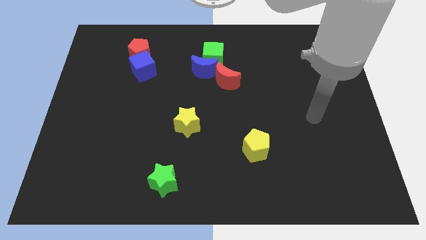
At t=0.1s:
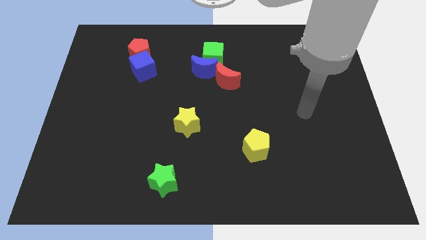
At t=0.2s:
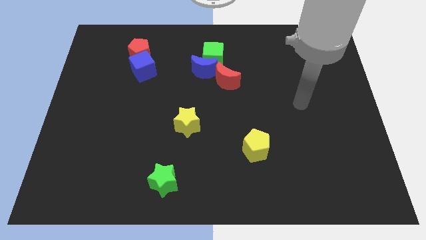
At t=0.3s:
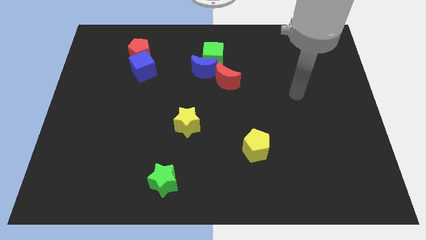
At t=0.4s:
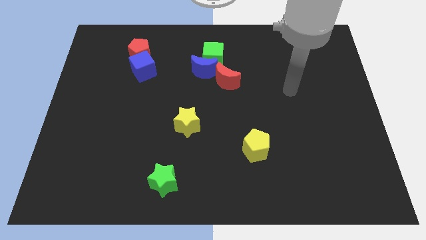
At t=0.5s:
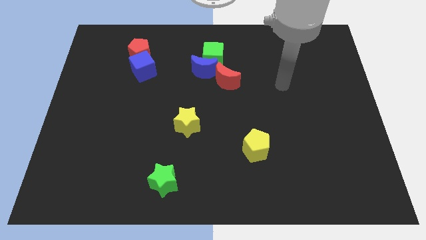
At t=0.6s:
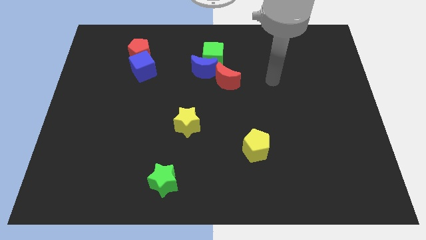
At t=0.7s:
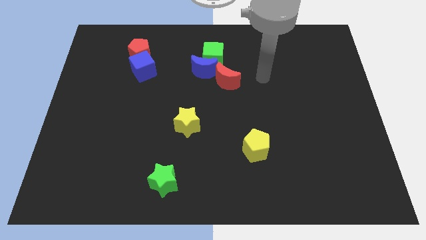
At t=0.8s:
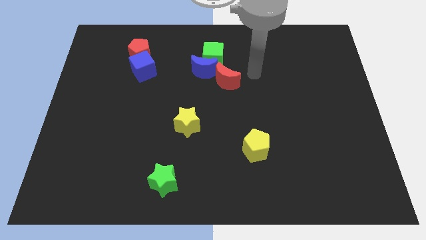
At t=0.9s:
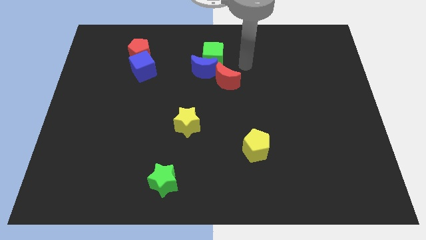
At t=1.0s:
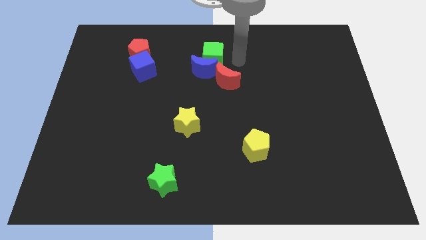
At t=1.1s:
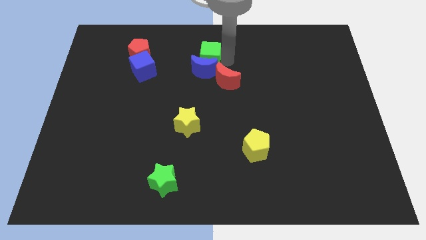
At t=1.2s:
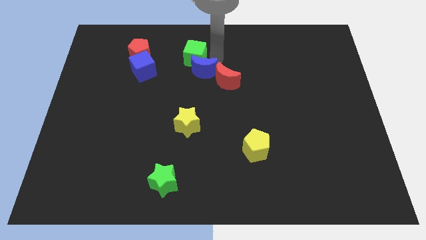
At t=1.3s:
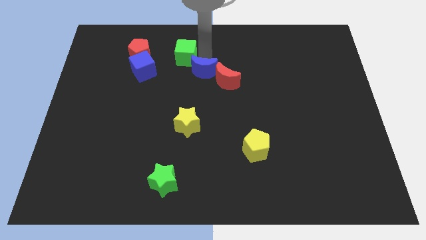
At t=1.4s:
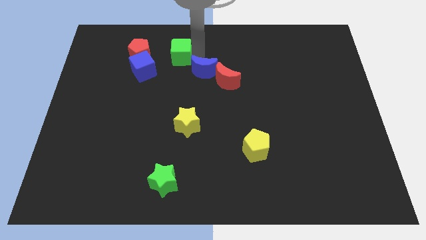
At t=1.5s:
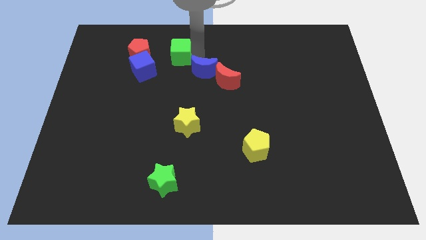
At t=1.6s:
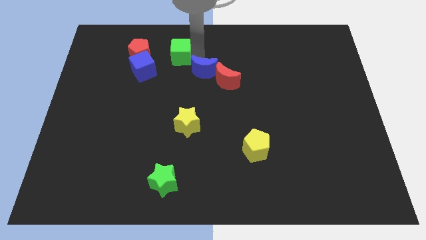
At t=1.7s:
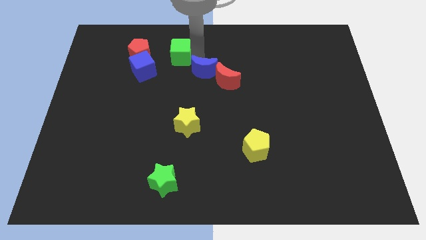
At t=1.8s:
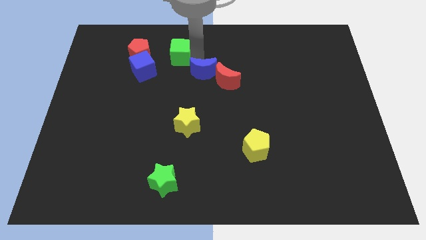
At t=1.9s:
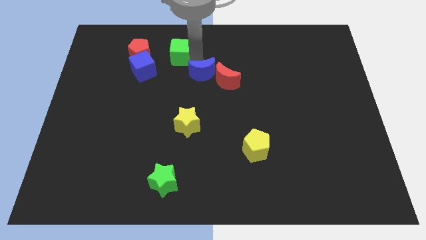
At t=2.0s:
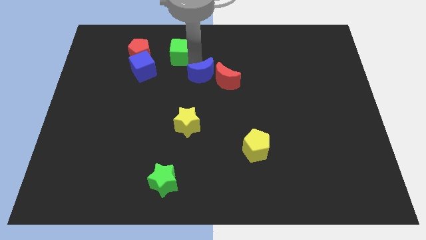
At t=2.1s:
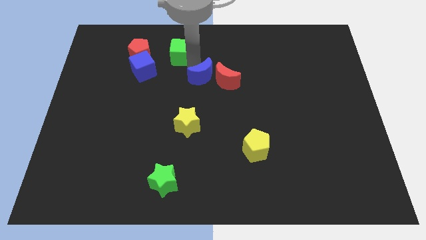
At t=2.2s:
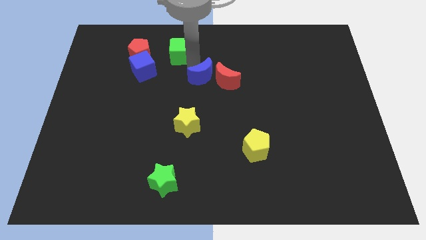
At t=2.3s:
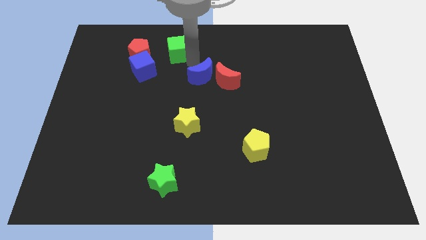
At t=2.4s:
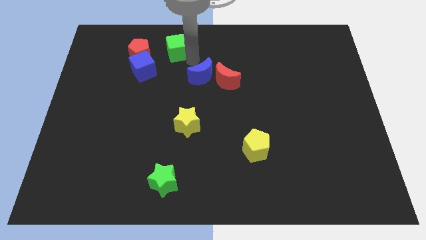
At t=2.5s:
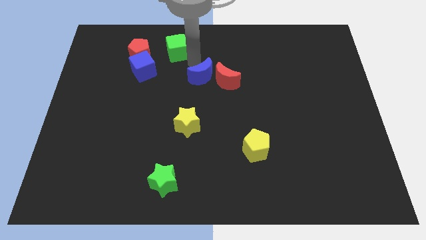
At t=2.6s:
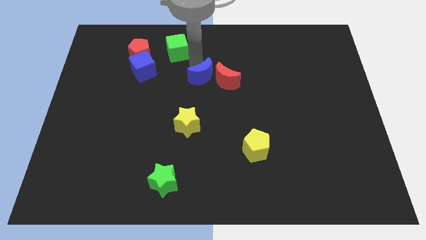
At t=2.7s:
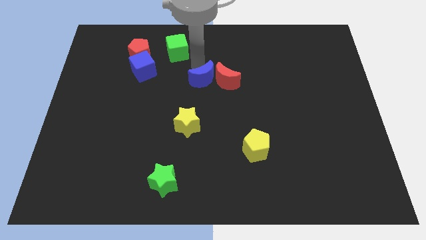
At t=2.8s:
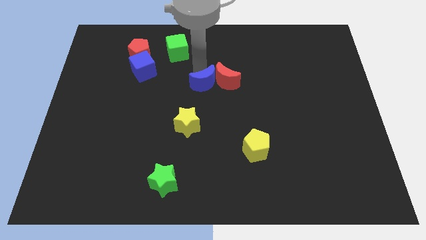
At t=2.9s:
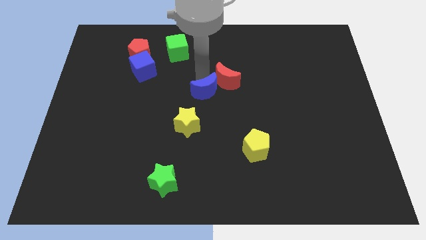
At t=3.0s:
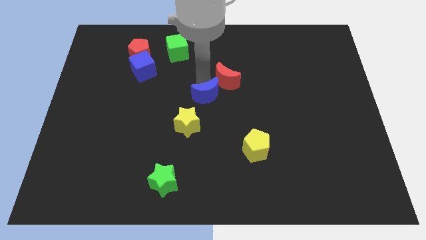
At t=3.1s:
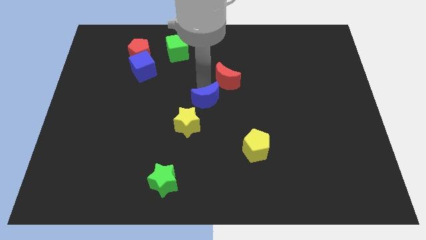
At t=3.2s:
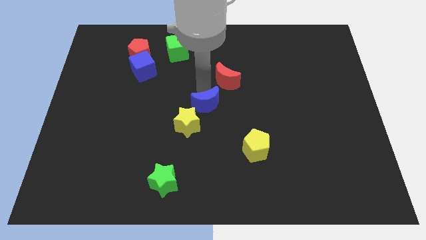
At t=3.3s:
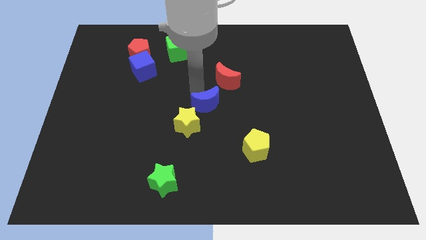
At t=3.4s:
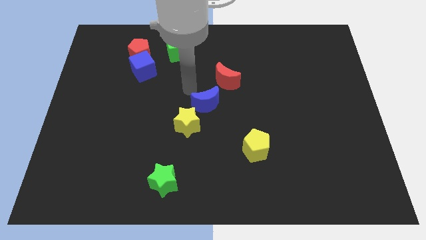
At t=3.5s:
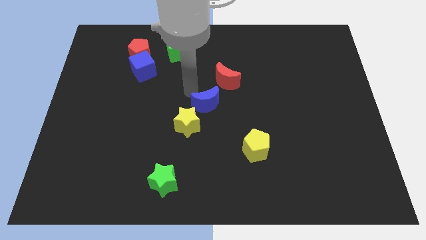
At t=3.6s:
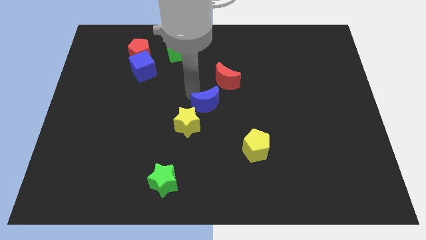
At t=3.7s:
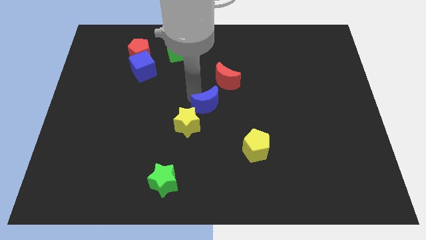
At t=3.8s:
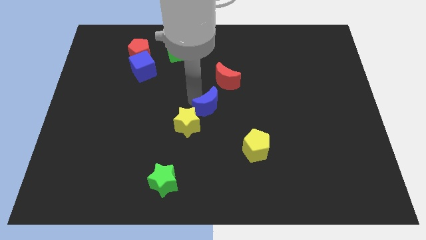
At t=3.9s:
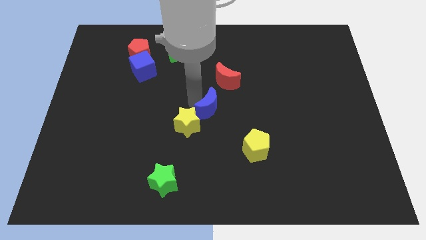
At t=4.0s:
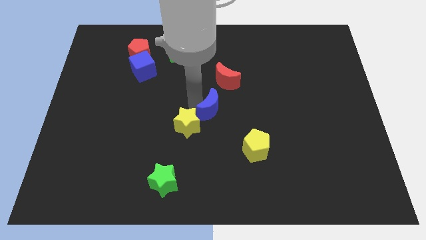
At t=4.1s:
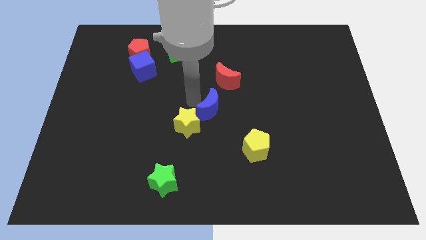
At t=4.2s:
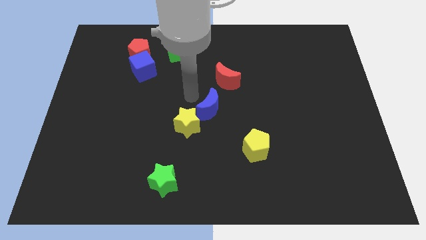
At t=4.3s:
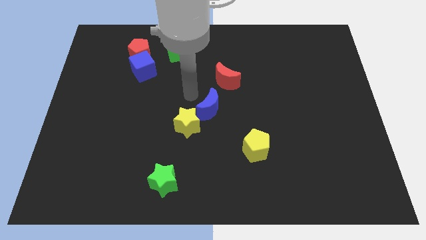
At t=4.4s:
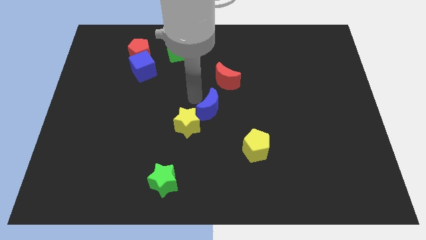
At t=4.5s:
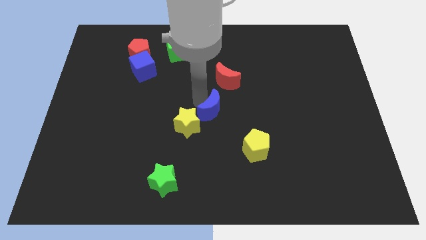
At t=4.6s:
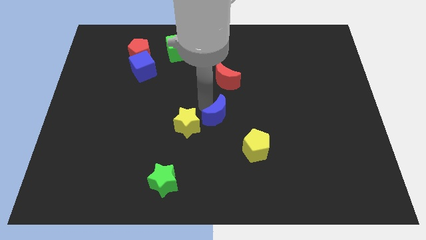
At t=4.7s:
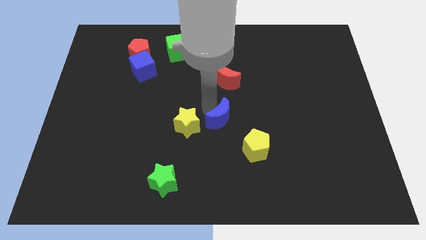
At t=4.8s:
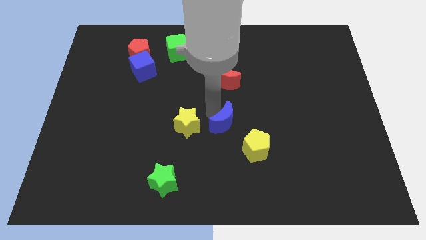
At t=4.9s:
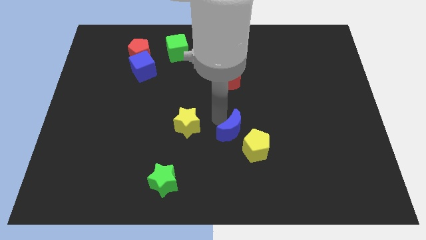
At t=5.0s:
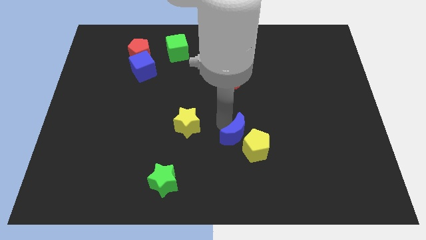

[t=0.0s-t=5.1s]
move the blue moon towards the yellow pentagon

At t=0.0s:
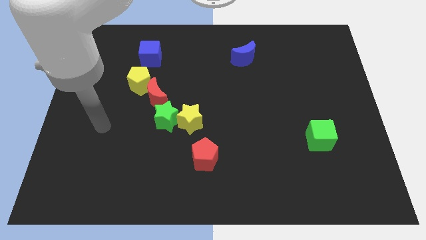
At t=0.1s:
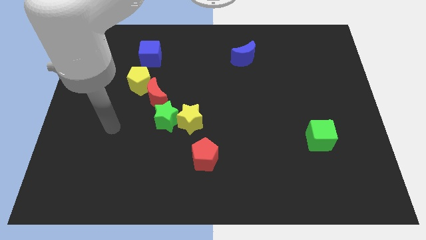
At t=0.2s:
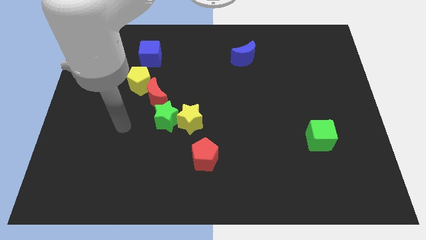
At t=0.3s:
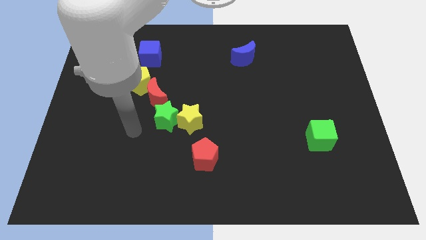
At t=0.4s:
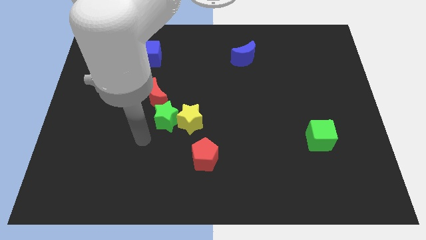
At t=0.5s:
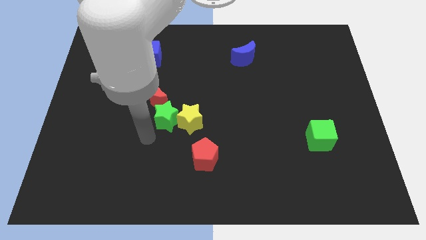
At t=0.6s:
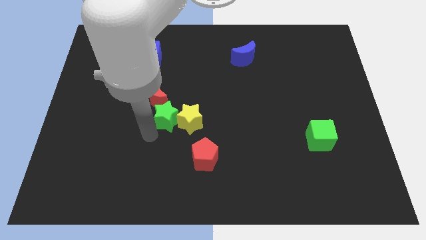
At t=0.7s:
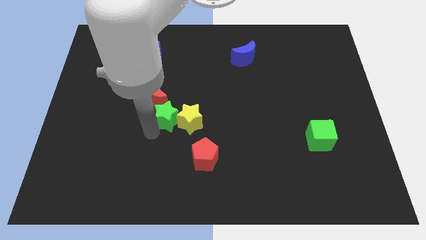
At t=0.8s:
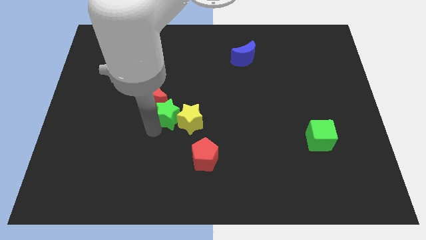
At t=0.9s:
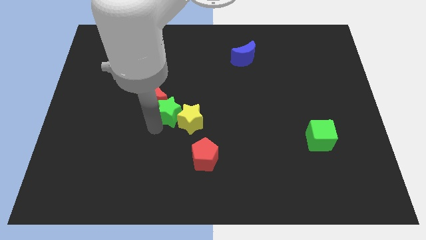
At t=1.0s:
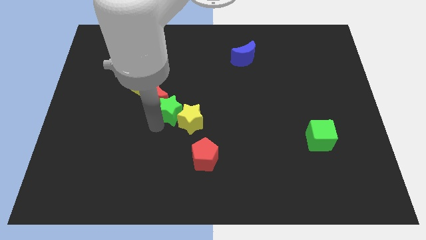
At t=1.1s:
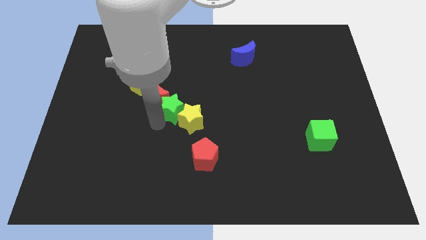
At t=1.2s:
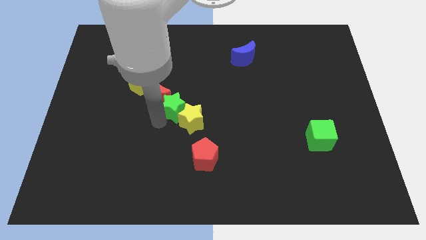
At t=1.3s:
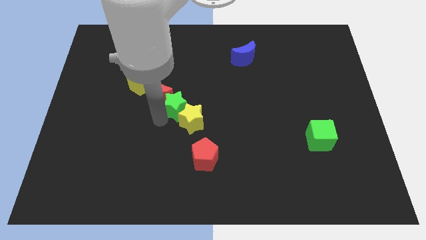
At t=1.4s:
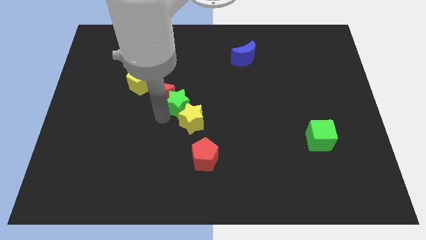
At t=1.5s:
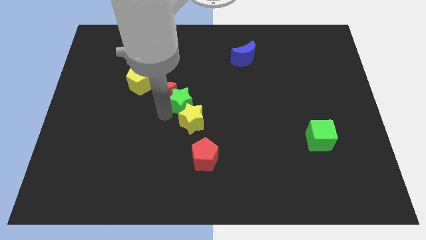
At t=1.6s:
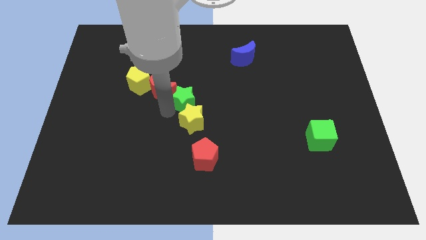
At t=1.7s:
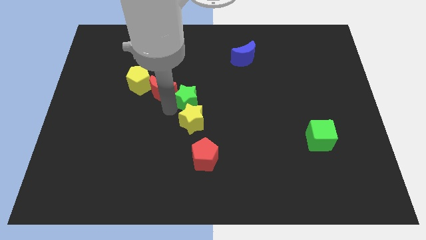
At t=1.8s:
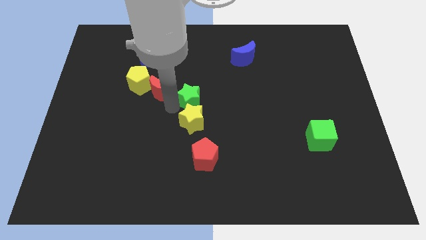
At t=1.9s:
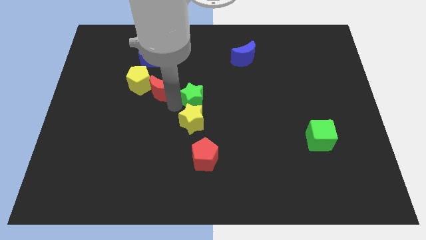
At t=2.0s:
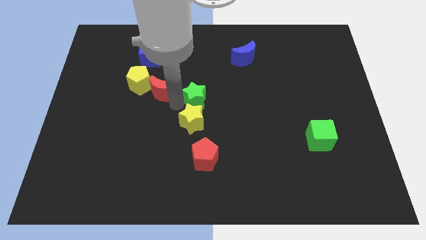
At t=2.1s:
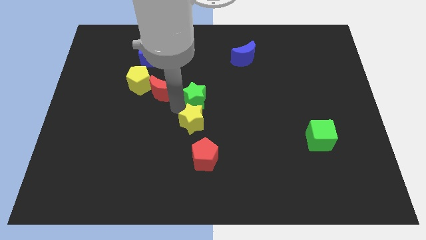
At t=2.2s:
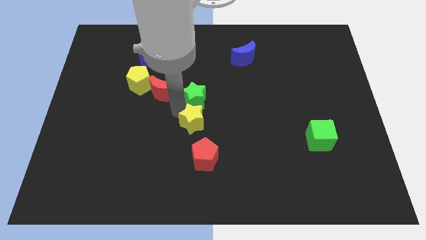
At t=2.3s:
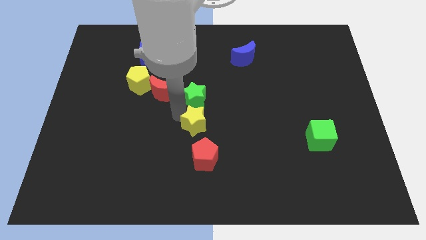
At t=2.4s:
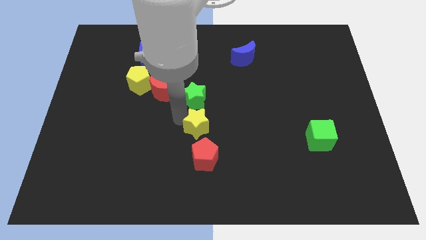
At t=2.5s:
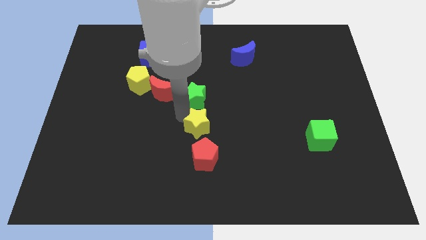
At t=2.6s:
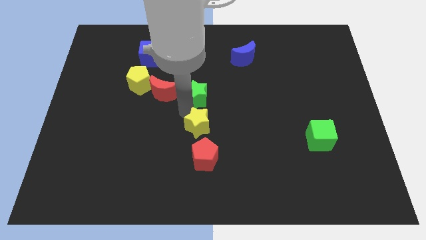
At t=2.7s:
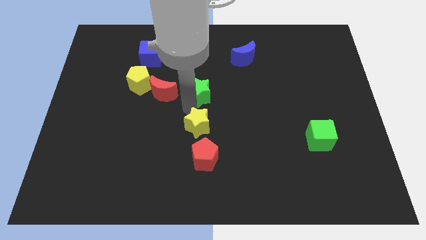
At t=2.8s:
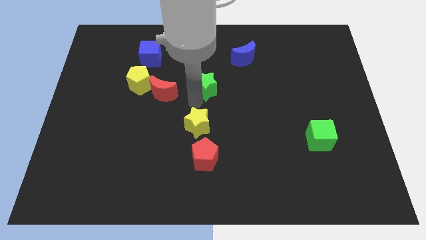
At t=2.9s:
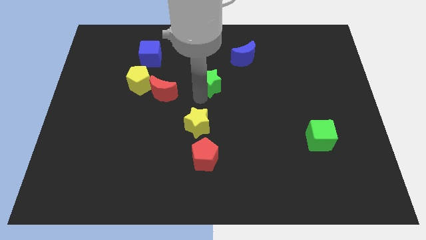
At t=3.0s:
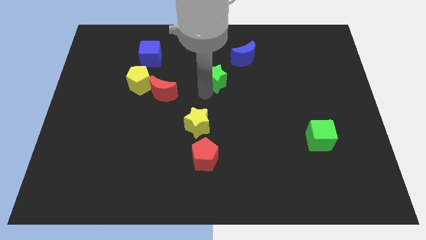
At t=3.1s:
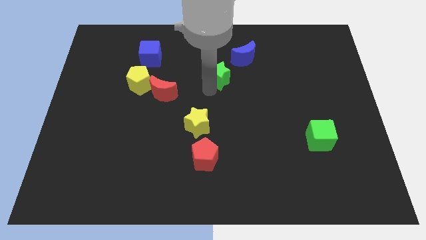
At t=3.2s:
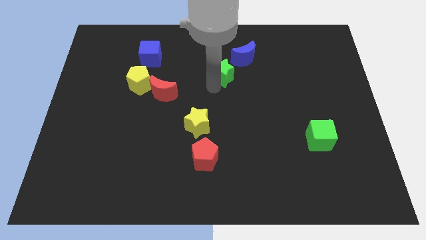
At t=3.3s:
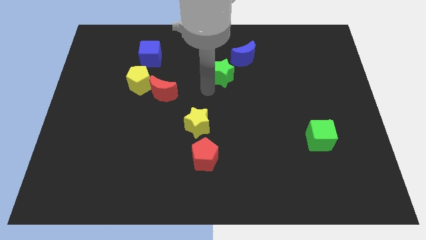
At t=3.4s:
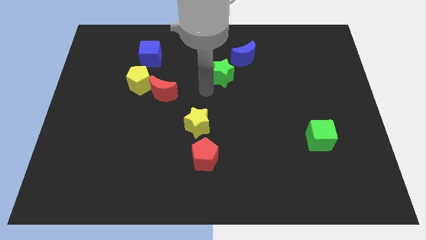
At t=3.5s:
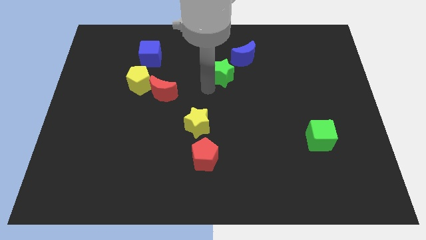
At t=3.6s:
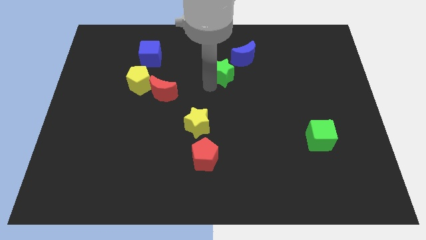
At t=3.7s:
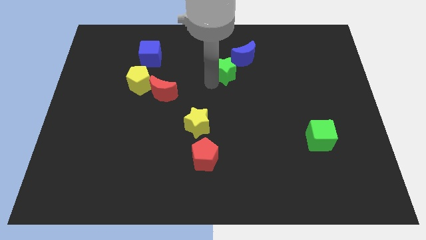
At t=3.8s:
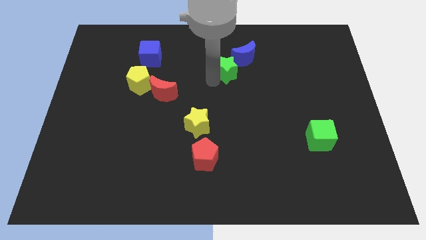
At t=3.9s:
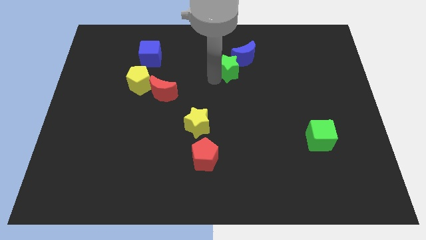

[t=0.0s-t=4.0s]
put the green star close to the blue moon
